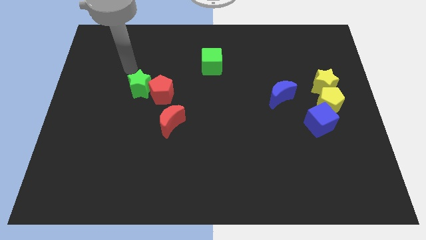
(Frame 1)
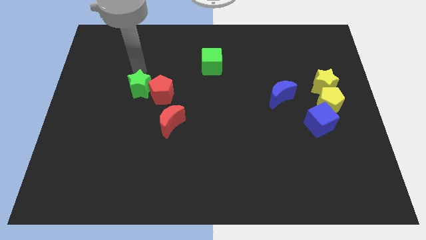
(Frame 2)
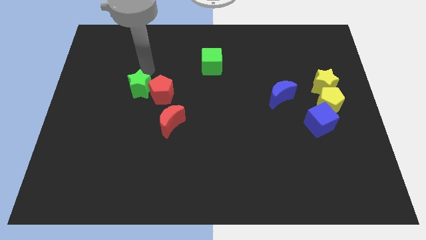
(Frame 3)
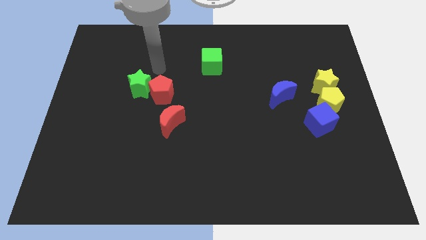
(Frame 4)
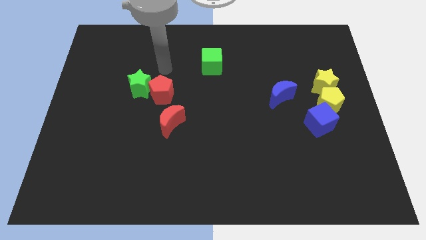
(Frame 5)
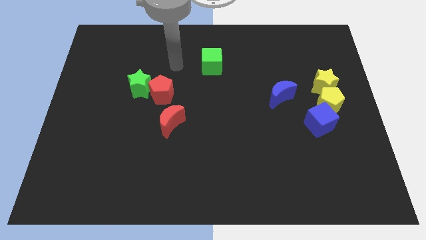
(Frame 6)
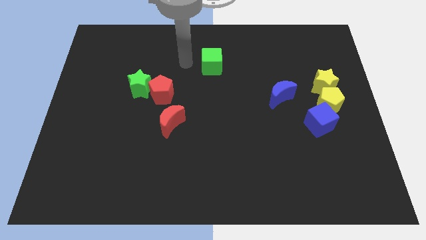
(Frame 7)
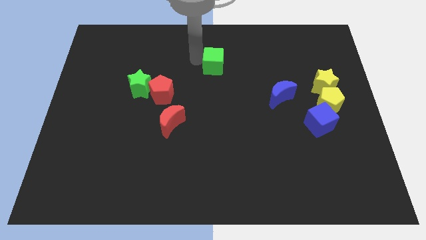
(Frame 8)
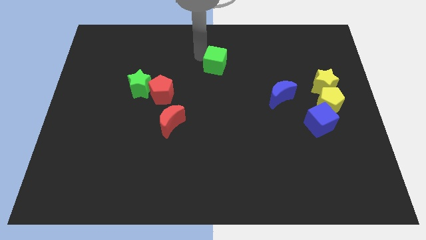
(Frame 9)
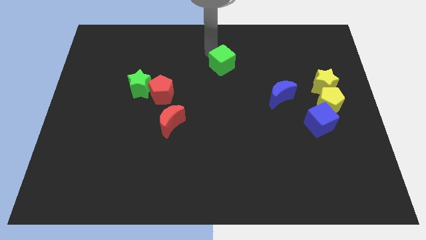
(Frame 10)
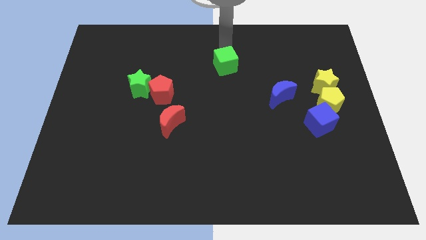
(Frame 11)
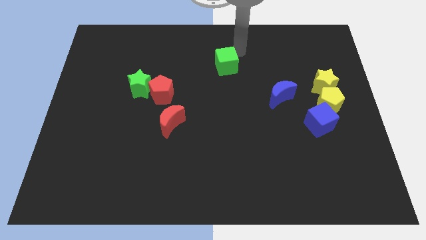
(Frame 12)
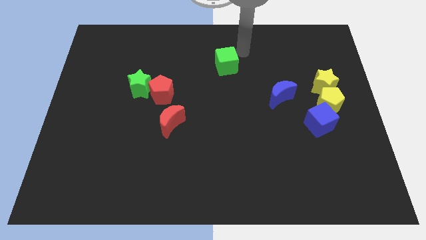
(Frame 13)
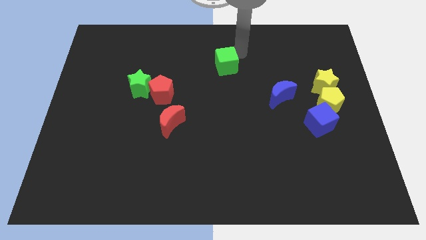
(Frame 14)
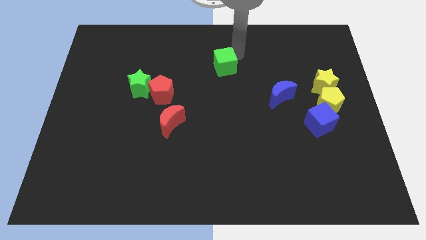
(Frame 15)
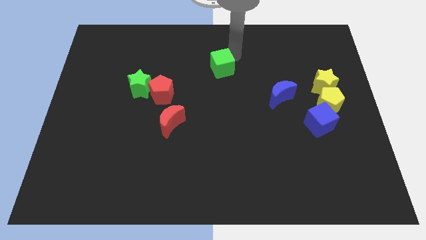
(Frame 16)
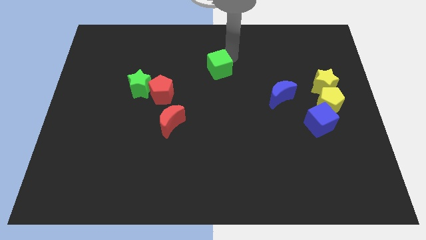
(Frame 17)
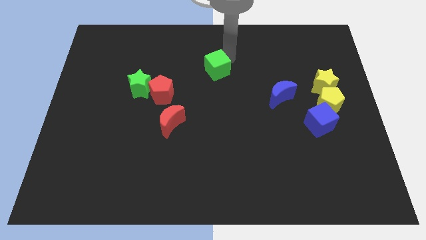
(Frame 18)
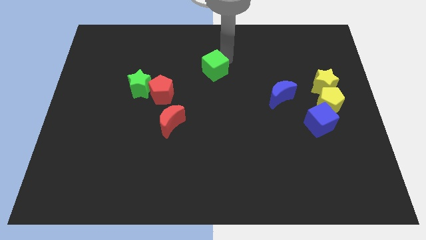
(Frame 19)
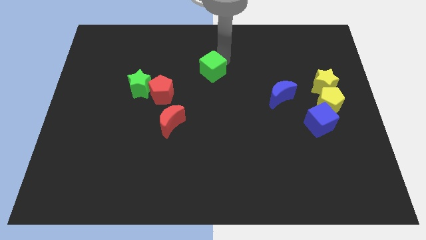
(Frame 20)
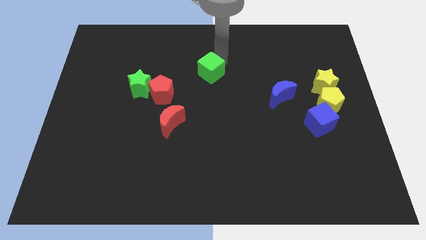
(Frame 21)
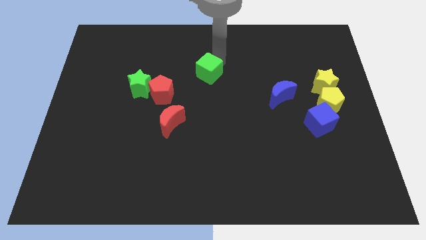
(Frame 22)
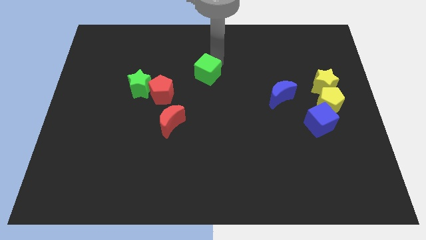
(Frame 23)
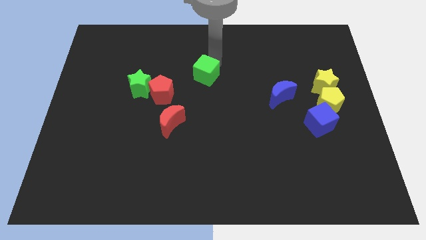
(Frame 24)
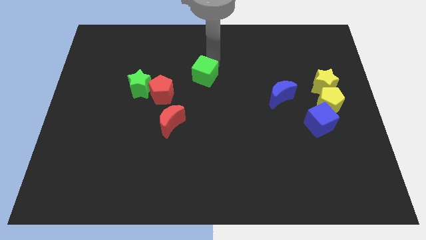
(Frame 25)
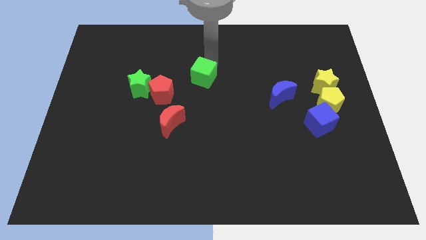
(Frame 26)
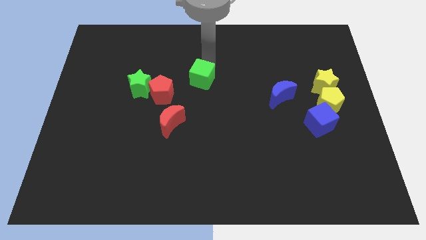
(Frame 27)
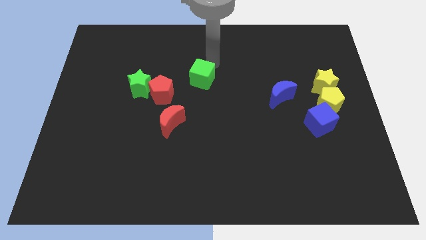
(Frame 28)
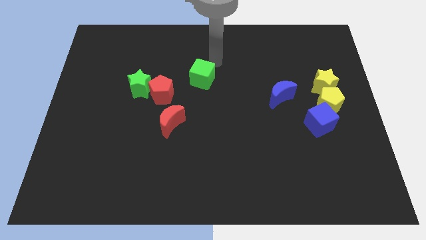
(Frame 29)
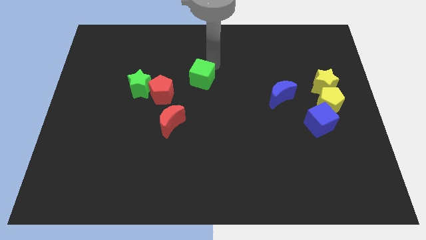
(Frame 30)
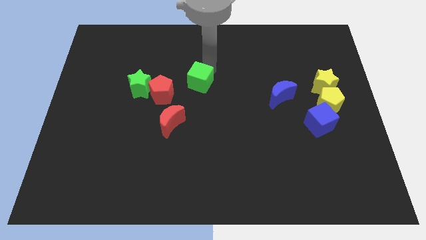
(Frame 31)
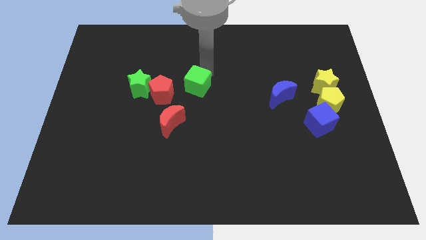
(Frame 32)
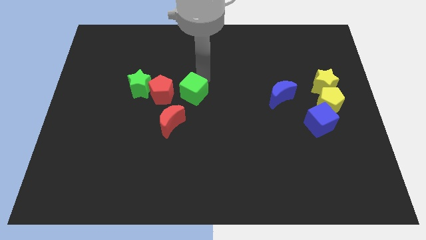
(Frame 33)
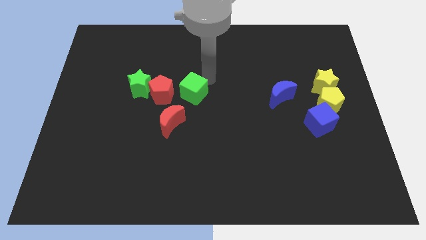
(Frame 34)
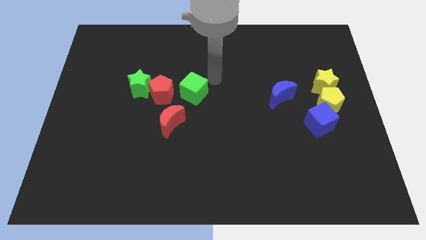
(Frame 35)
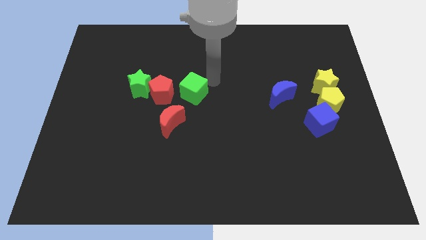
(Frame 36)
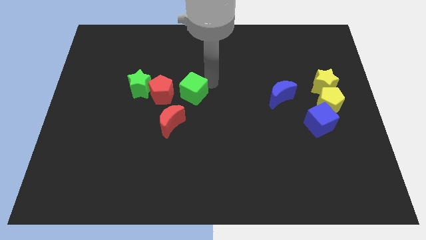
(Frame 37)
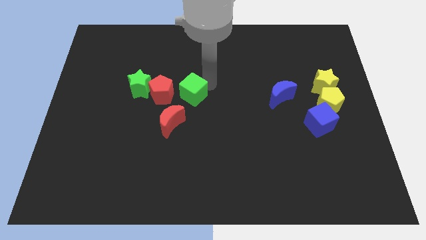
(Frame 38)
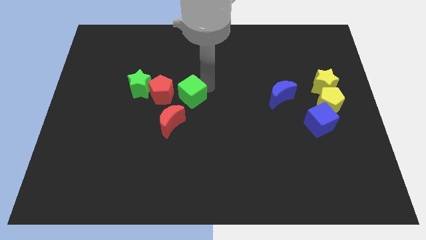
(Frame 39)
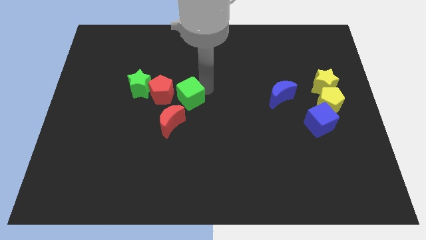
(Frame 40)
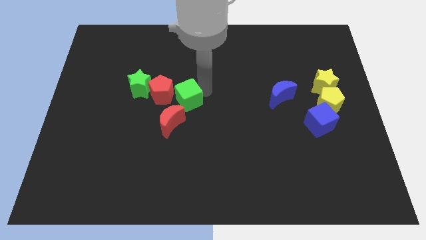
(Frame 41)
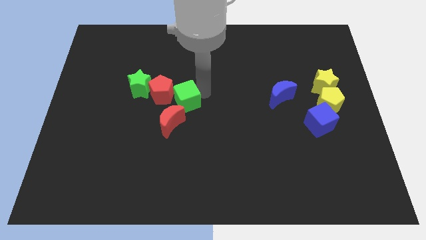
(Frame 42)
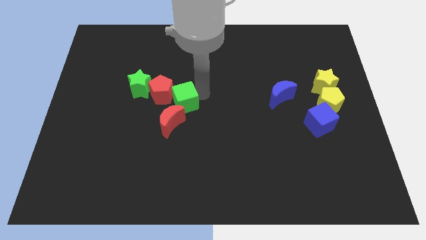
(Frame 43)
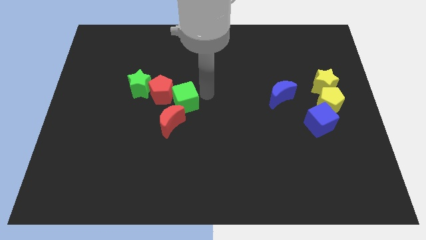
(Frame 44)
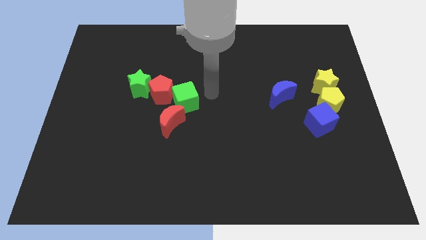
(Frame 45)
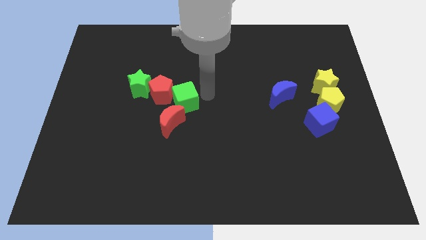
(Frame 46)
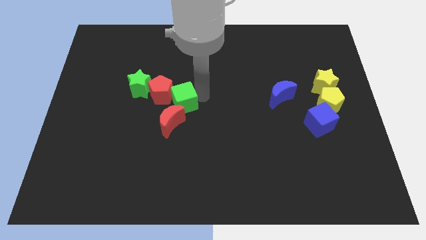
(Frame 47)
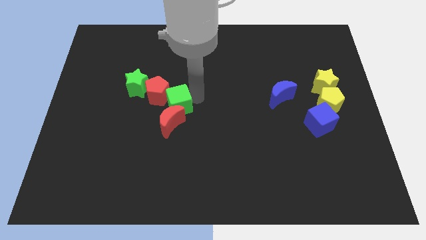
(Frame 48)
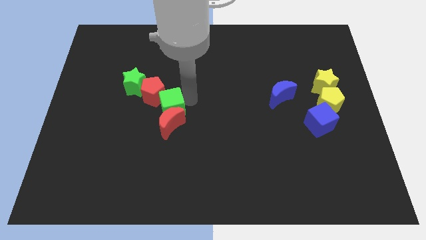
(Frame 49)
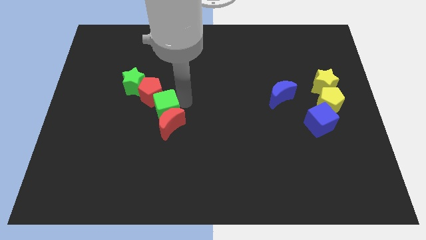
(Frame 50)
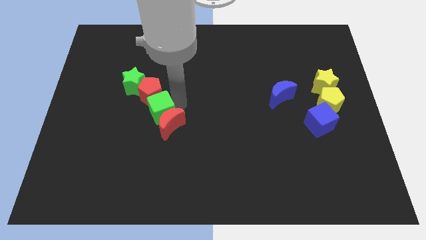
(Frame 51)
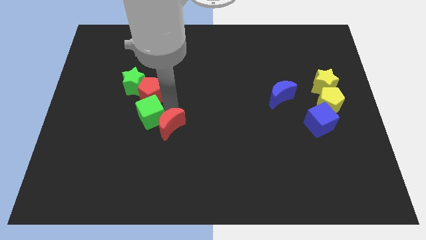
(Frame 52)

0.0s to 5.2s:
slide the green cube downwards and left

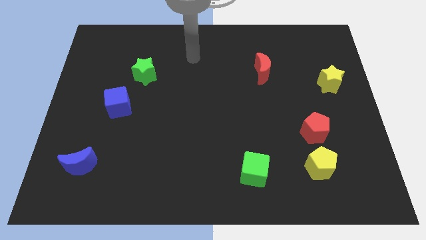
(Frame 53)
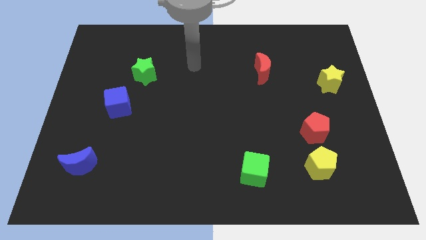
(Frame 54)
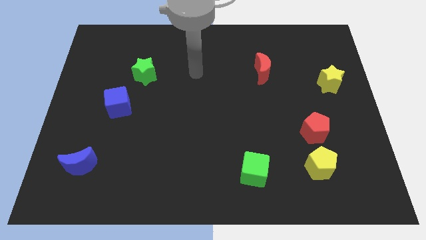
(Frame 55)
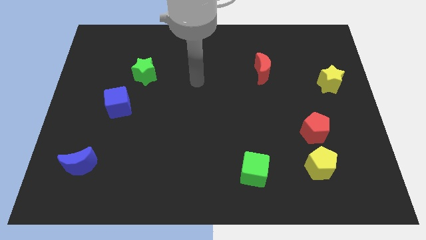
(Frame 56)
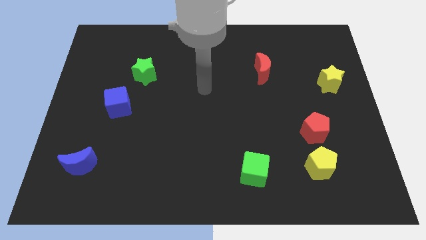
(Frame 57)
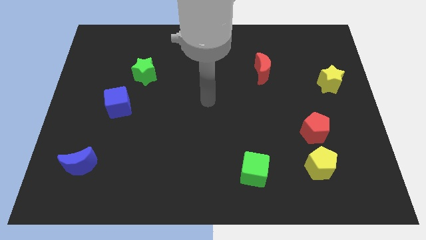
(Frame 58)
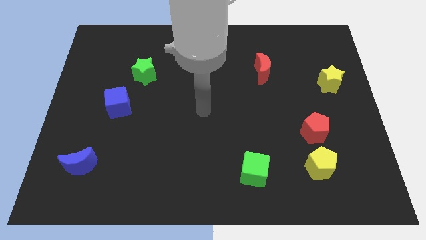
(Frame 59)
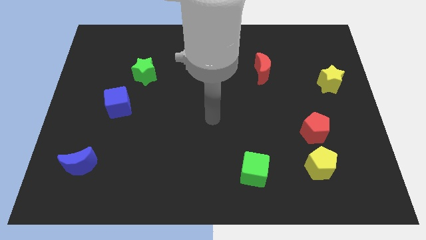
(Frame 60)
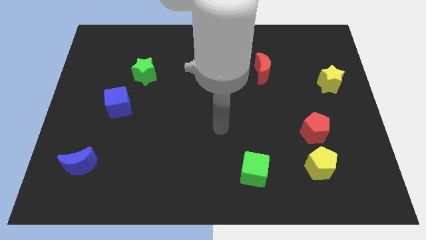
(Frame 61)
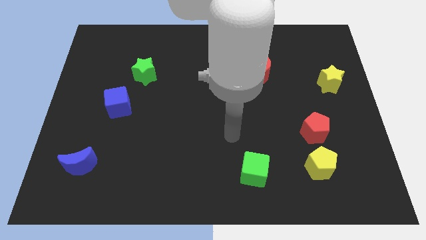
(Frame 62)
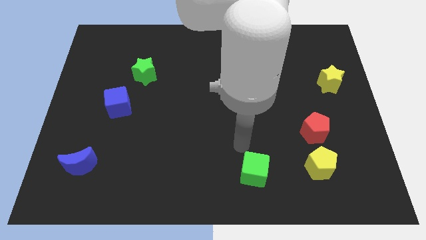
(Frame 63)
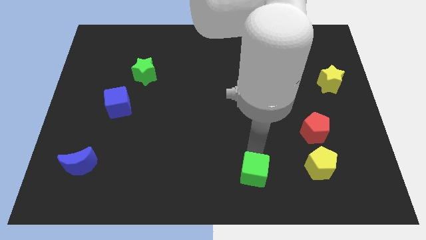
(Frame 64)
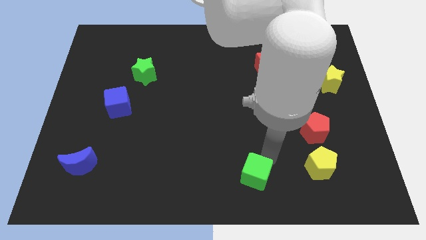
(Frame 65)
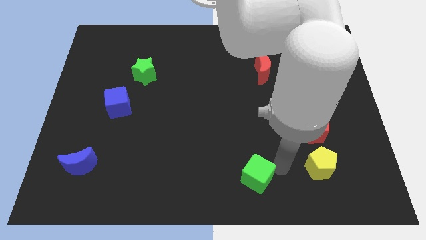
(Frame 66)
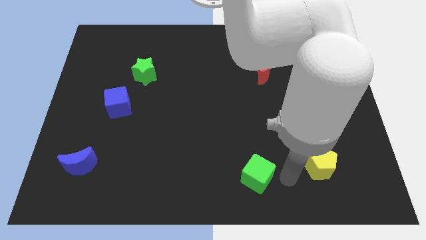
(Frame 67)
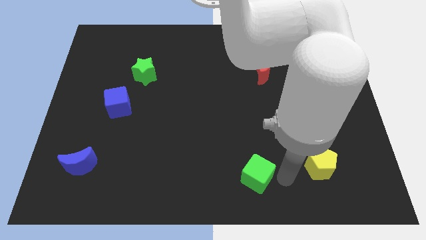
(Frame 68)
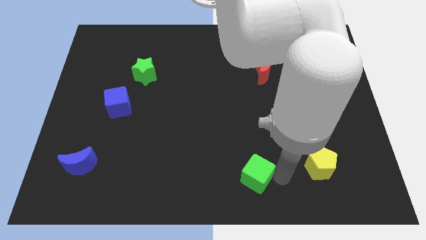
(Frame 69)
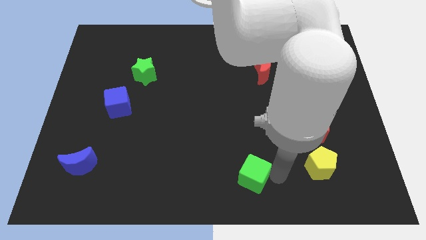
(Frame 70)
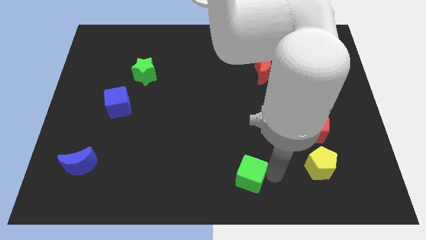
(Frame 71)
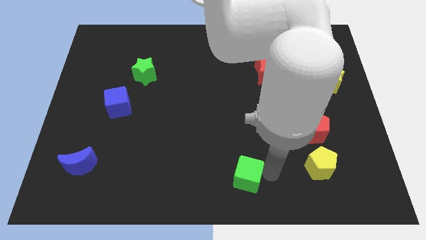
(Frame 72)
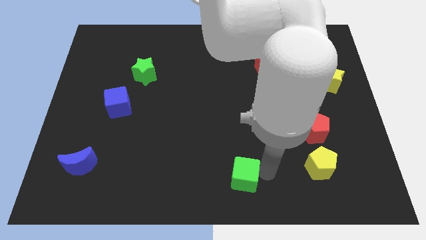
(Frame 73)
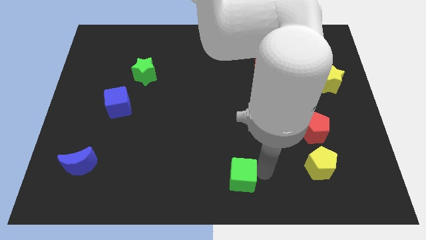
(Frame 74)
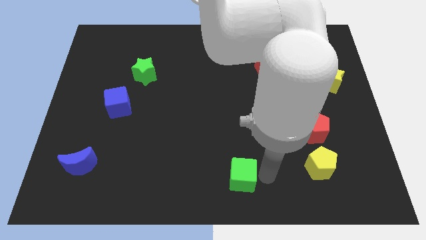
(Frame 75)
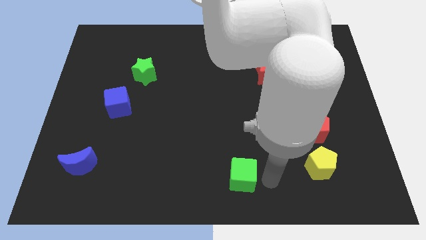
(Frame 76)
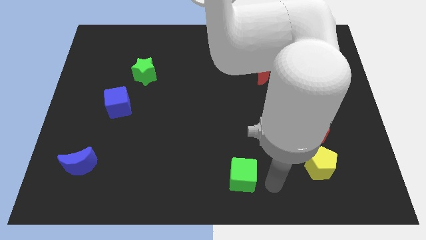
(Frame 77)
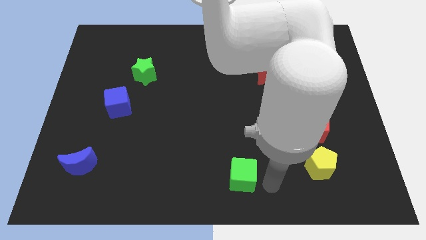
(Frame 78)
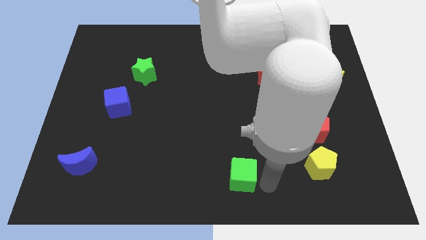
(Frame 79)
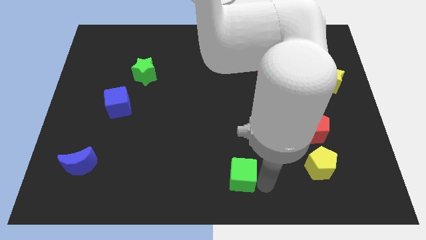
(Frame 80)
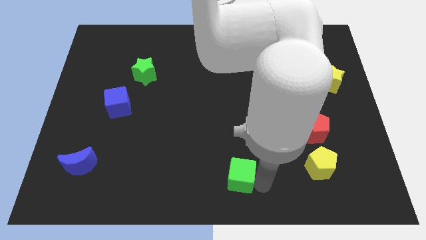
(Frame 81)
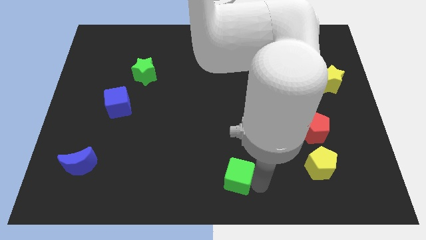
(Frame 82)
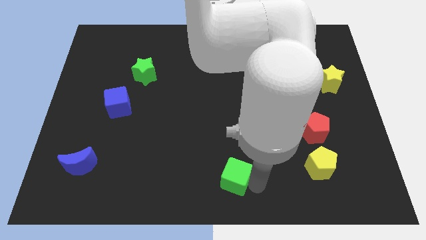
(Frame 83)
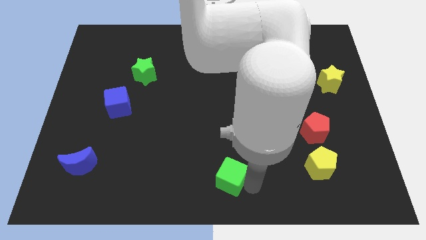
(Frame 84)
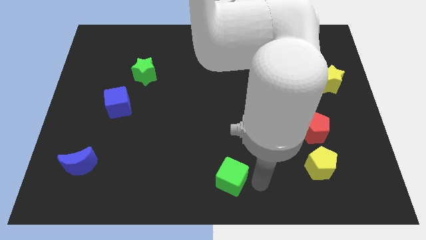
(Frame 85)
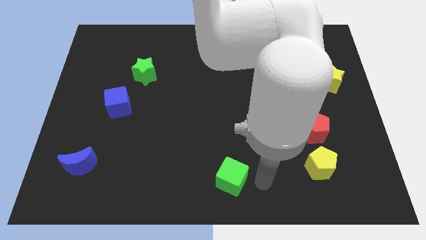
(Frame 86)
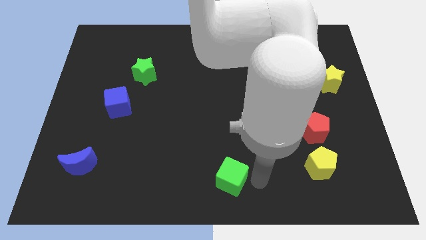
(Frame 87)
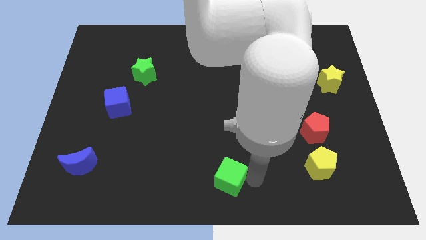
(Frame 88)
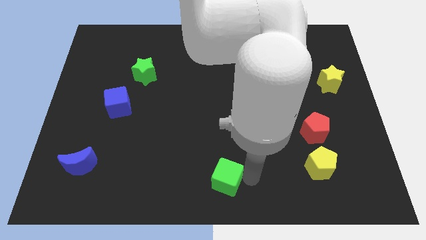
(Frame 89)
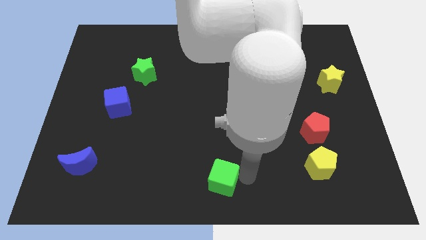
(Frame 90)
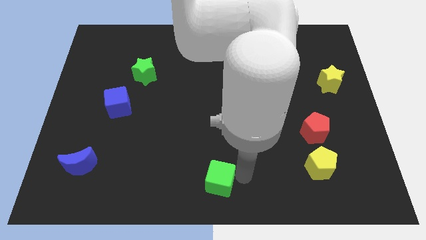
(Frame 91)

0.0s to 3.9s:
slightly push the green cube to the left
